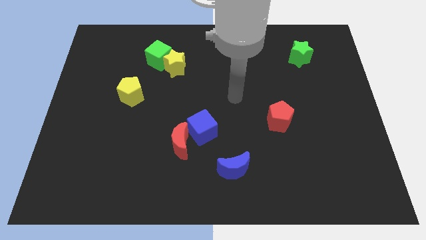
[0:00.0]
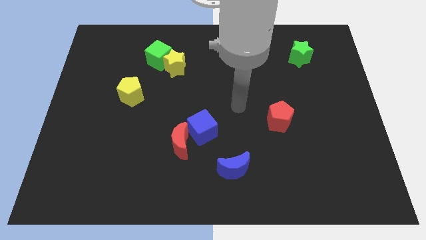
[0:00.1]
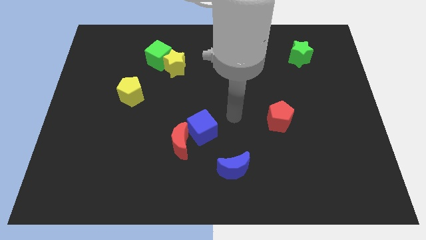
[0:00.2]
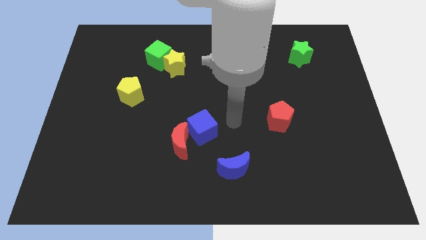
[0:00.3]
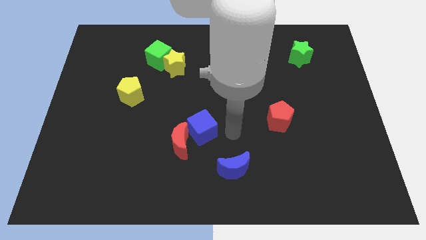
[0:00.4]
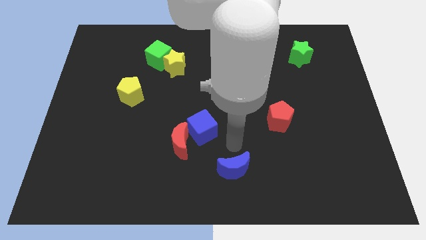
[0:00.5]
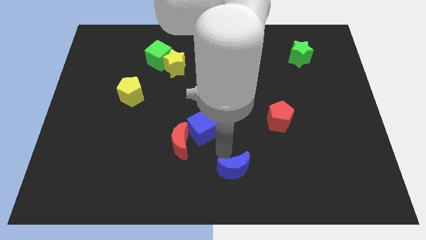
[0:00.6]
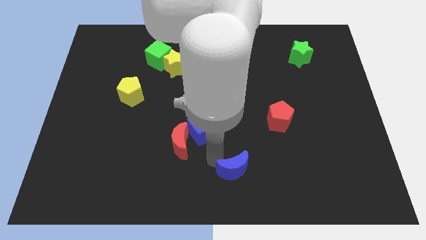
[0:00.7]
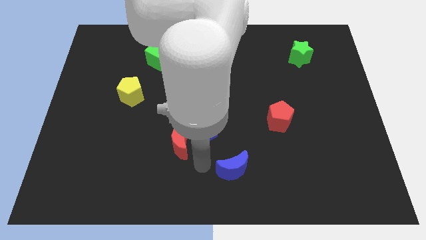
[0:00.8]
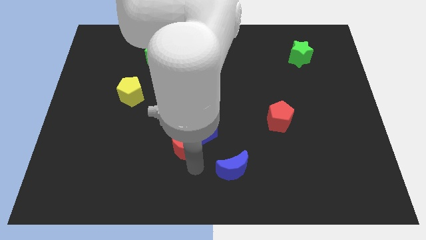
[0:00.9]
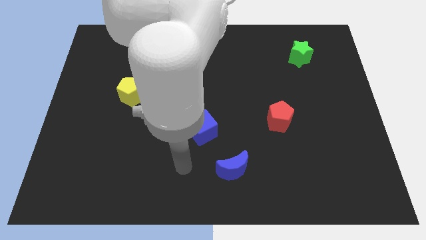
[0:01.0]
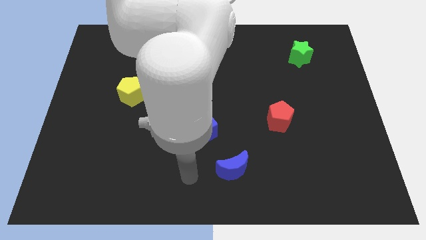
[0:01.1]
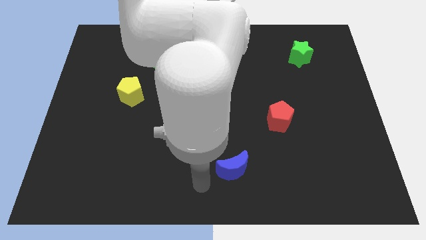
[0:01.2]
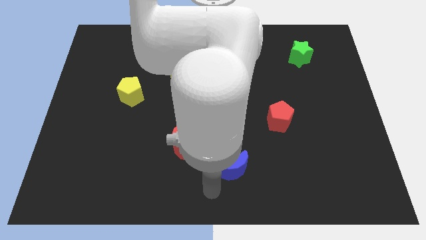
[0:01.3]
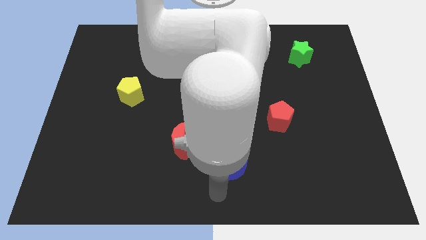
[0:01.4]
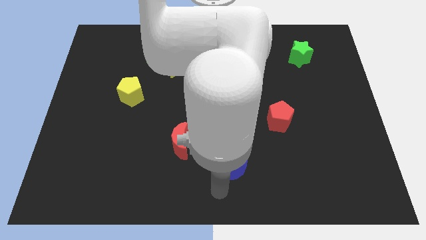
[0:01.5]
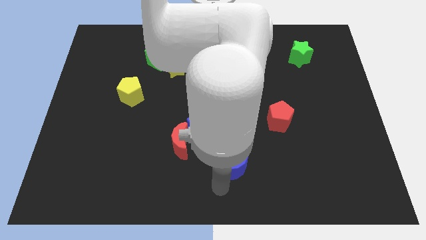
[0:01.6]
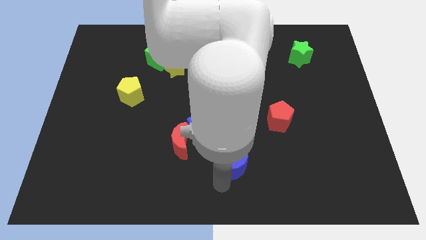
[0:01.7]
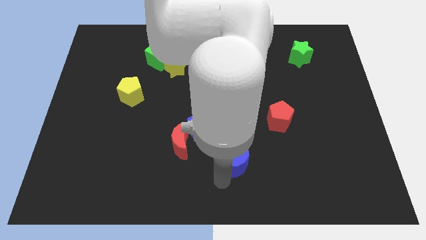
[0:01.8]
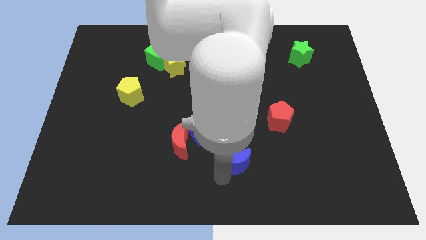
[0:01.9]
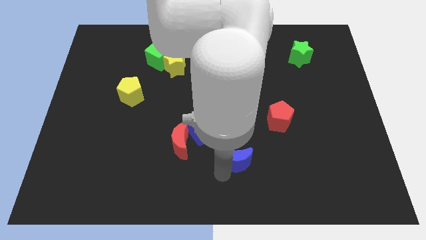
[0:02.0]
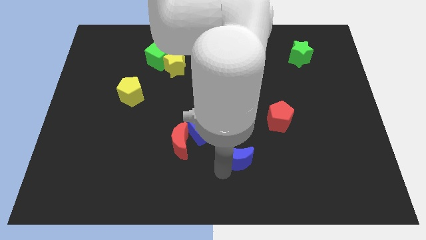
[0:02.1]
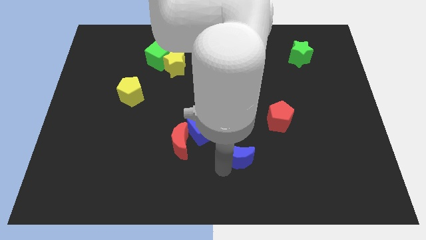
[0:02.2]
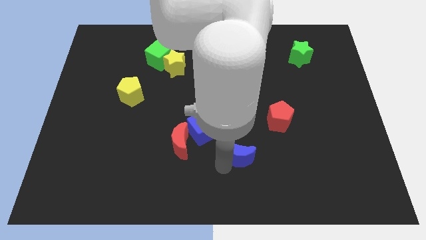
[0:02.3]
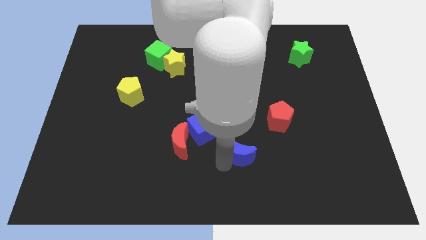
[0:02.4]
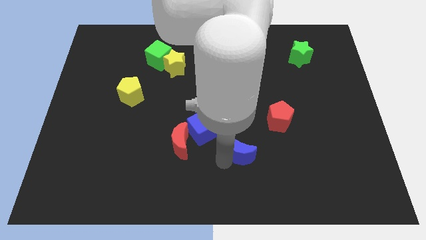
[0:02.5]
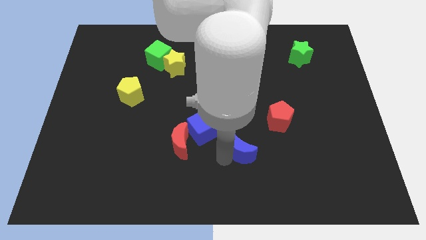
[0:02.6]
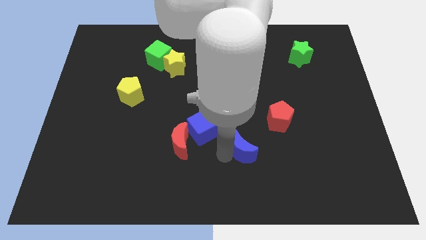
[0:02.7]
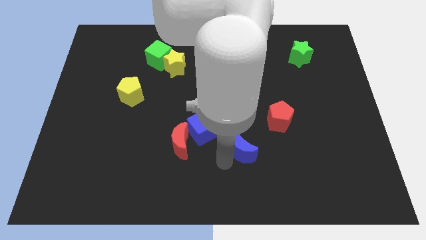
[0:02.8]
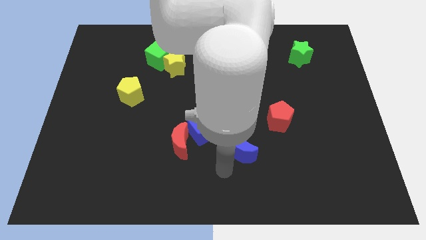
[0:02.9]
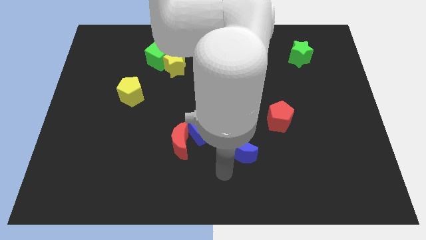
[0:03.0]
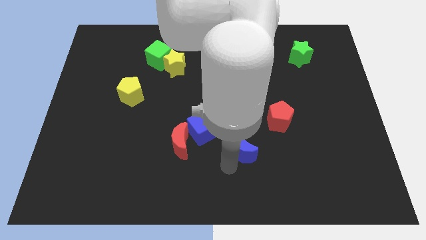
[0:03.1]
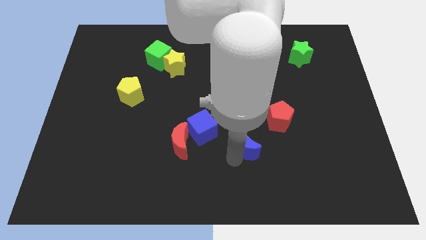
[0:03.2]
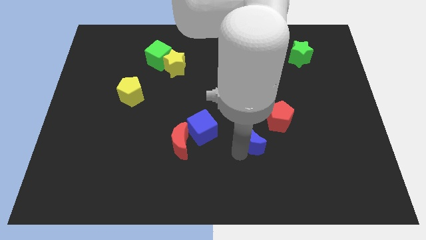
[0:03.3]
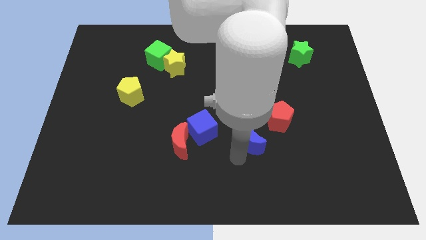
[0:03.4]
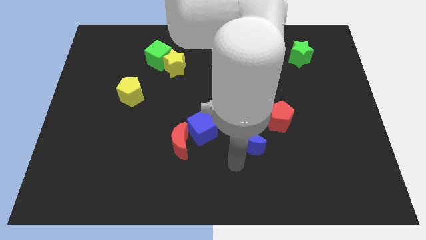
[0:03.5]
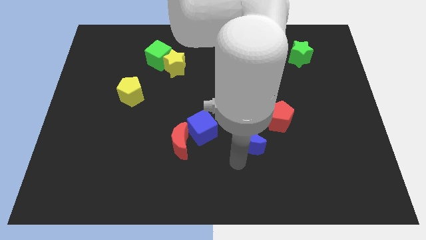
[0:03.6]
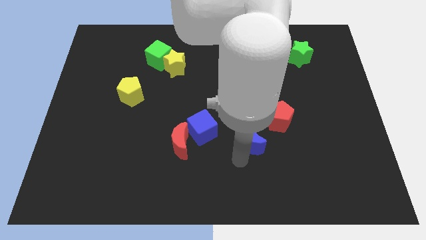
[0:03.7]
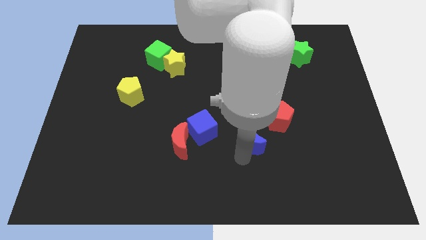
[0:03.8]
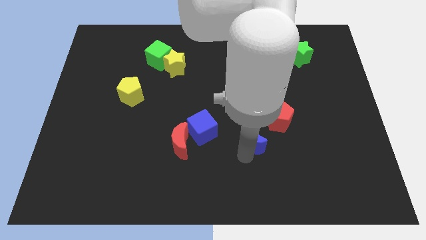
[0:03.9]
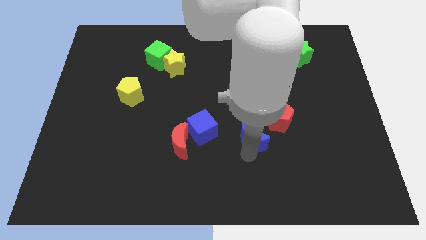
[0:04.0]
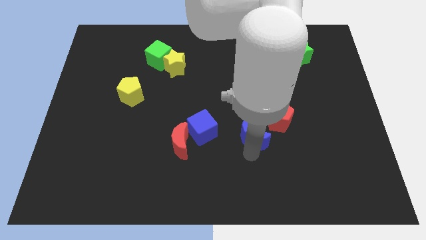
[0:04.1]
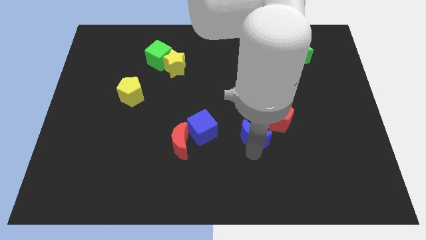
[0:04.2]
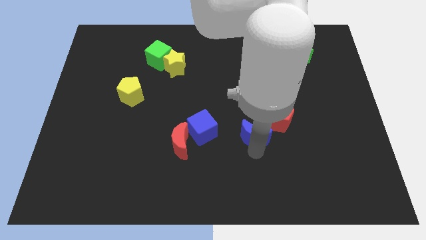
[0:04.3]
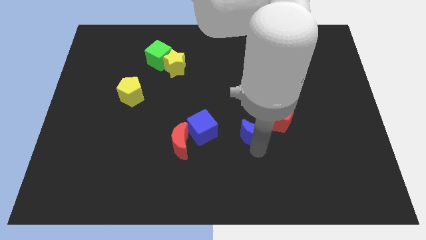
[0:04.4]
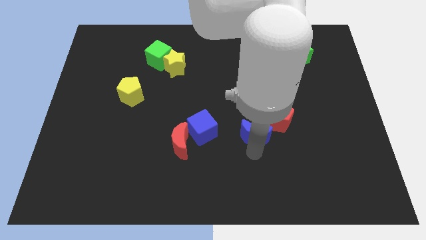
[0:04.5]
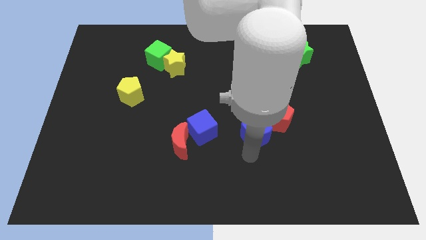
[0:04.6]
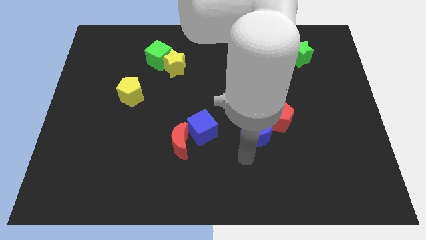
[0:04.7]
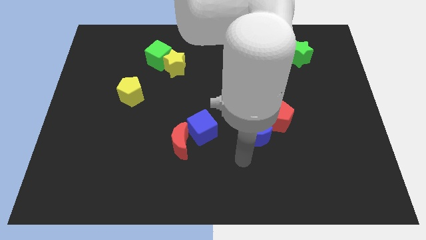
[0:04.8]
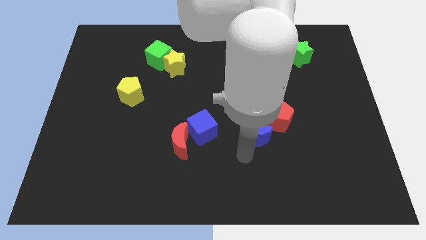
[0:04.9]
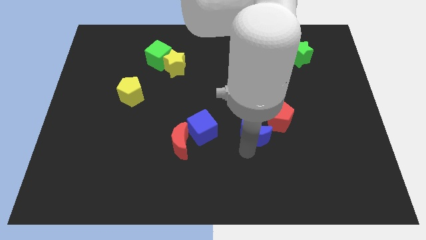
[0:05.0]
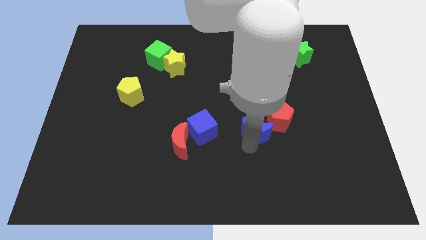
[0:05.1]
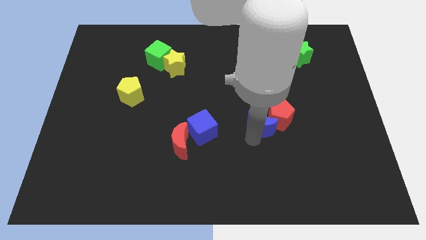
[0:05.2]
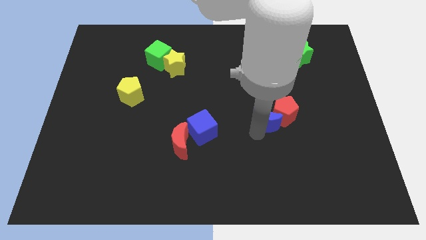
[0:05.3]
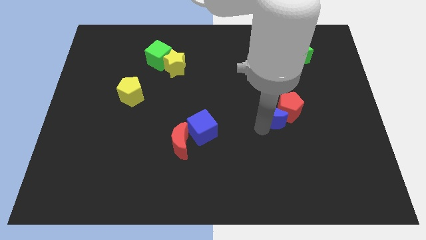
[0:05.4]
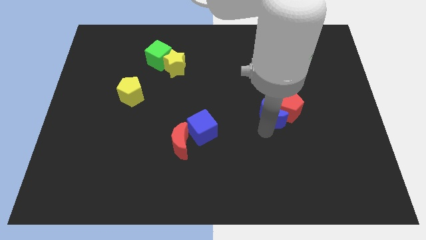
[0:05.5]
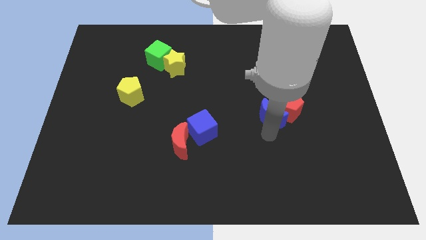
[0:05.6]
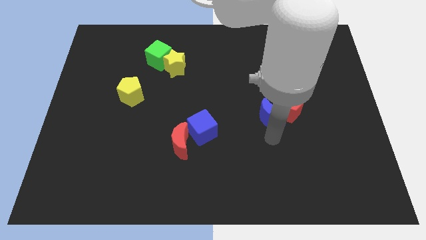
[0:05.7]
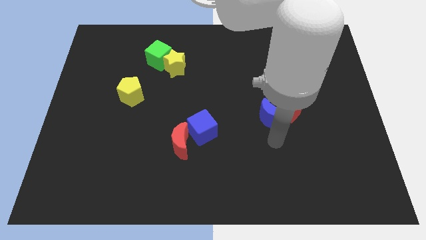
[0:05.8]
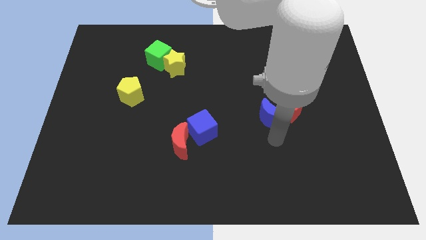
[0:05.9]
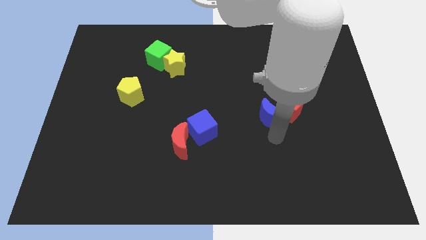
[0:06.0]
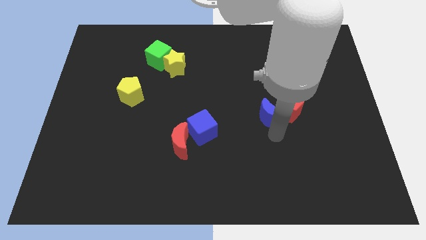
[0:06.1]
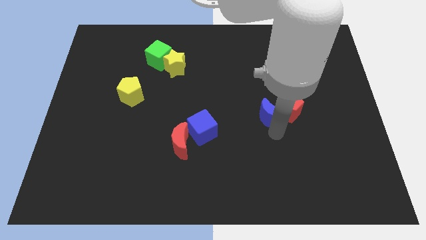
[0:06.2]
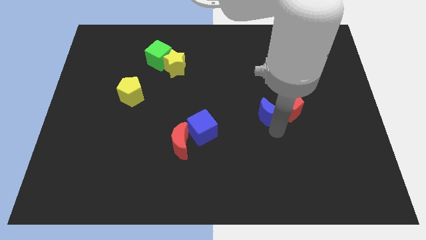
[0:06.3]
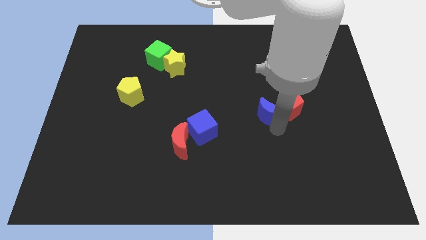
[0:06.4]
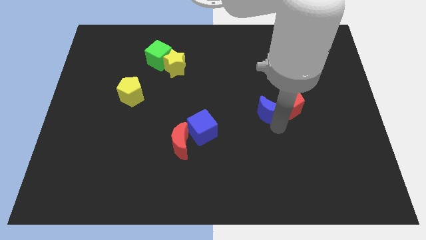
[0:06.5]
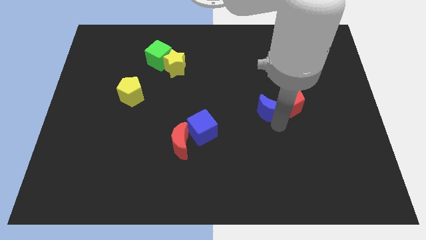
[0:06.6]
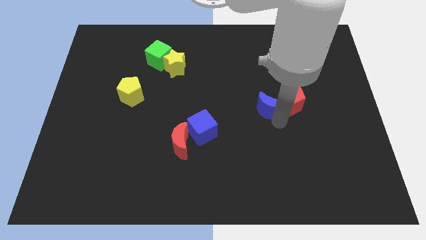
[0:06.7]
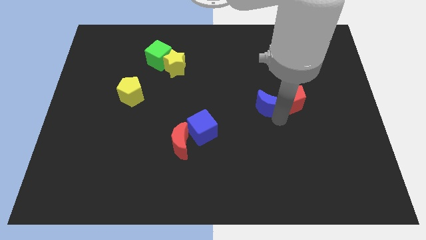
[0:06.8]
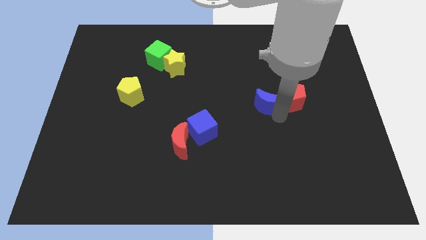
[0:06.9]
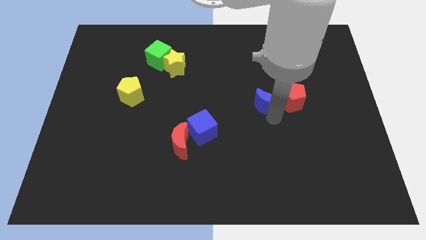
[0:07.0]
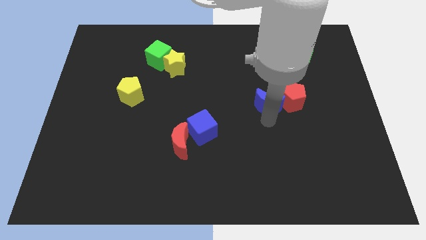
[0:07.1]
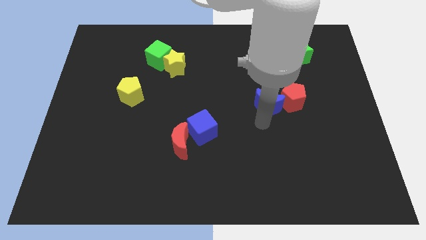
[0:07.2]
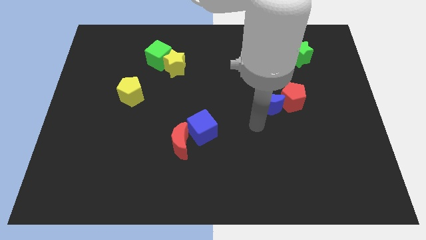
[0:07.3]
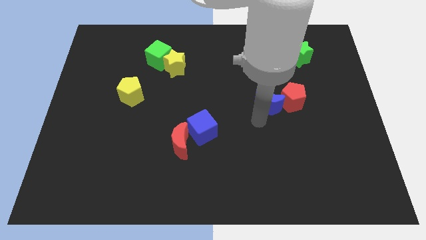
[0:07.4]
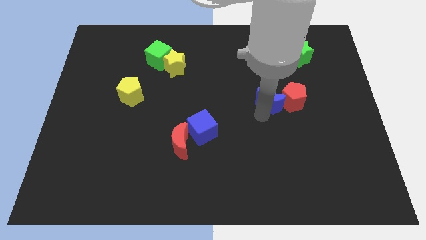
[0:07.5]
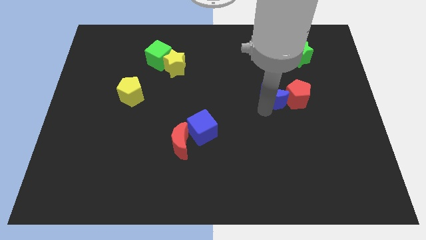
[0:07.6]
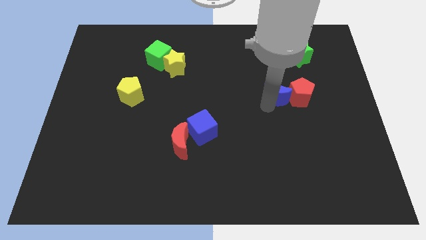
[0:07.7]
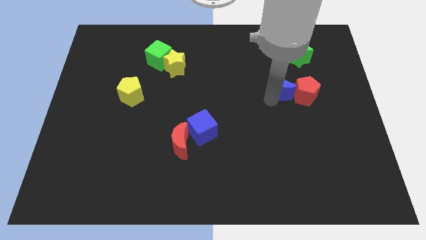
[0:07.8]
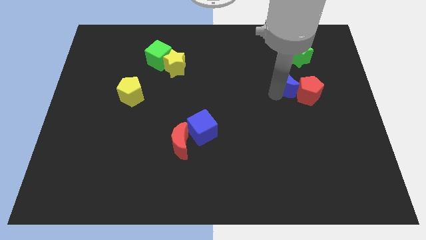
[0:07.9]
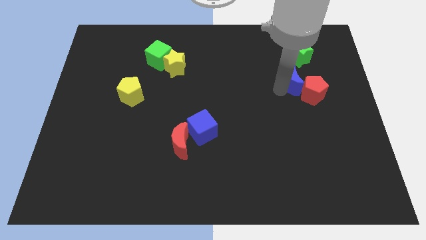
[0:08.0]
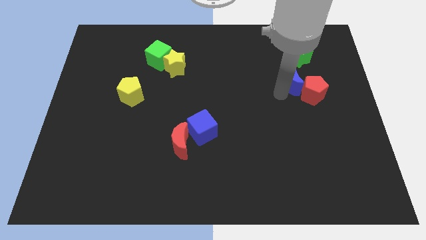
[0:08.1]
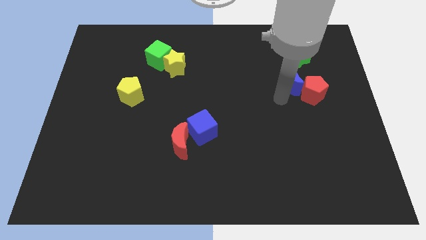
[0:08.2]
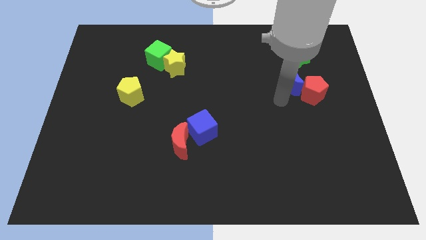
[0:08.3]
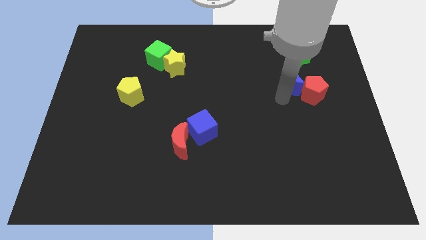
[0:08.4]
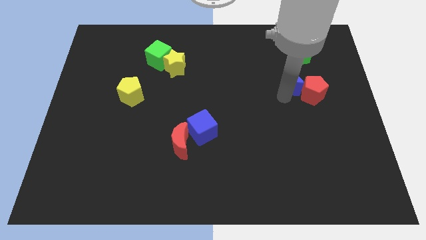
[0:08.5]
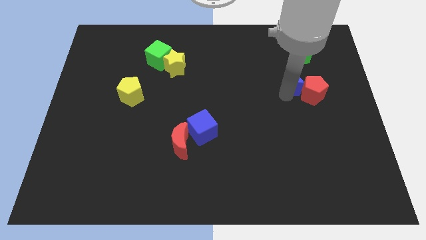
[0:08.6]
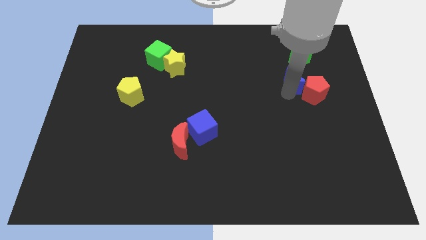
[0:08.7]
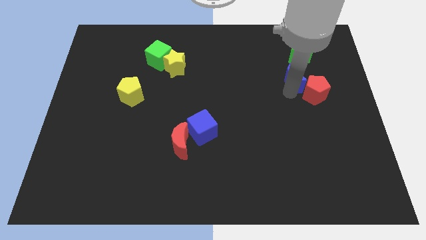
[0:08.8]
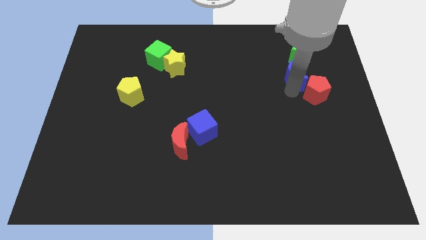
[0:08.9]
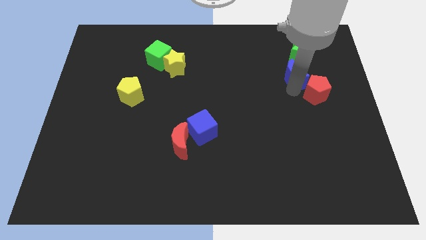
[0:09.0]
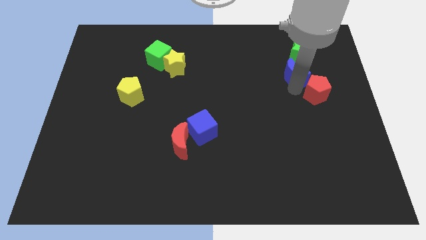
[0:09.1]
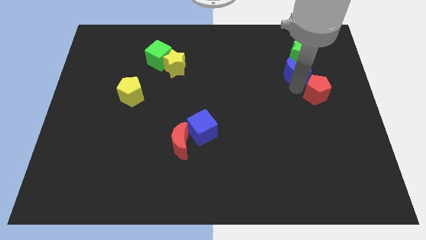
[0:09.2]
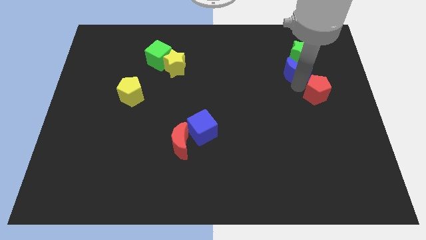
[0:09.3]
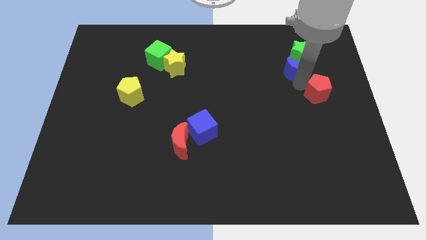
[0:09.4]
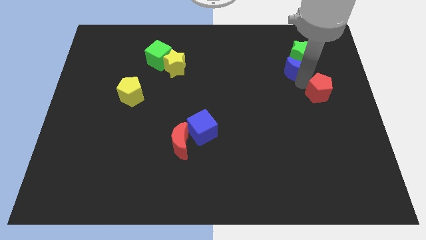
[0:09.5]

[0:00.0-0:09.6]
put the blue moon next to the green star
